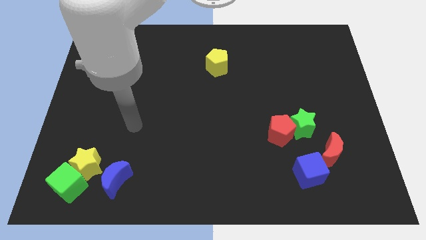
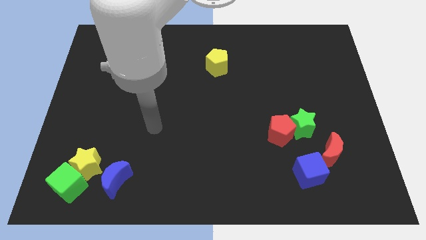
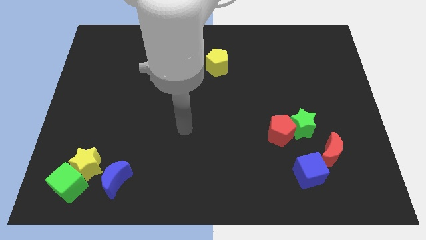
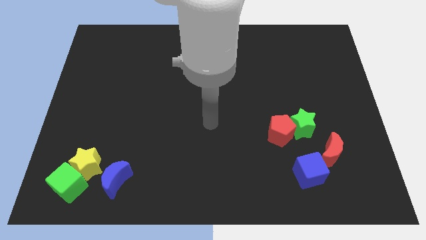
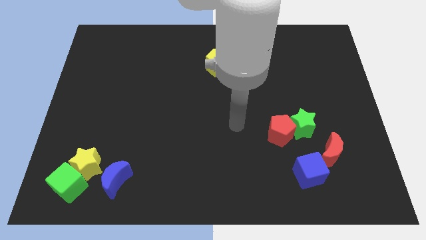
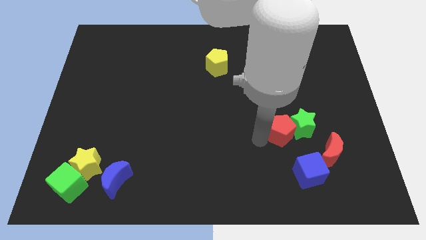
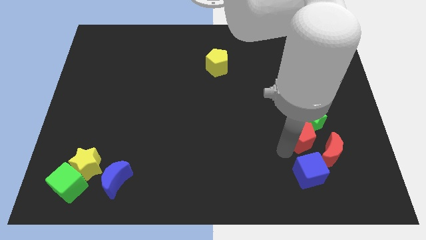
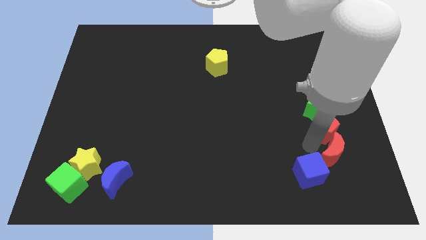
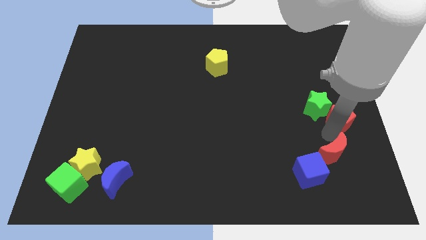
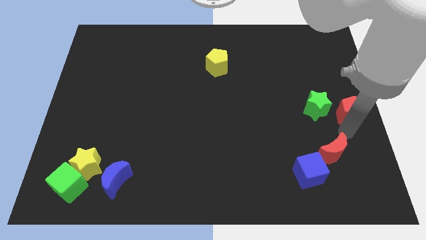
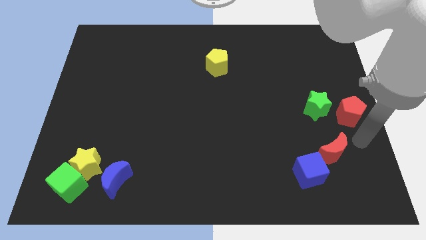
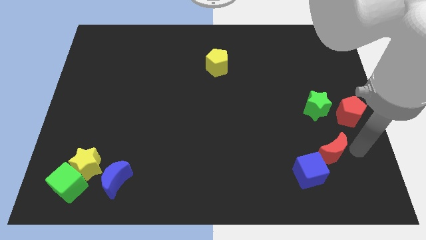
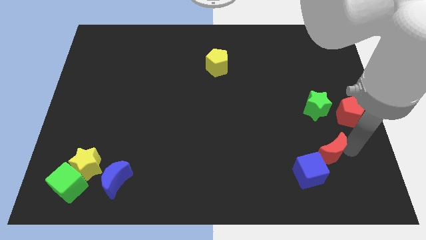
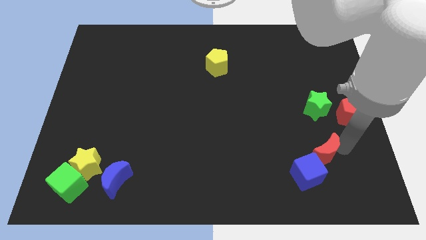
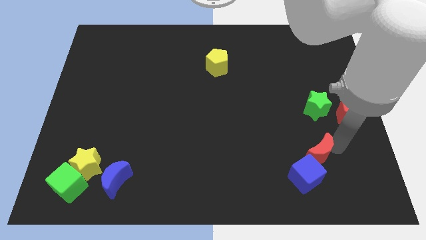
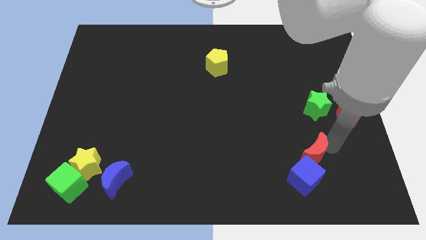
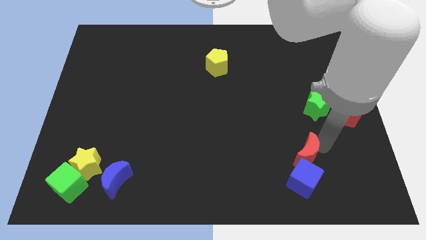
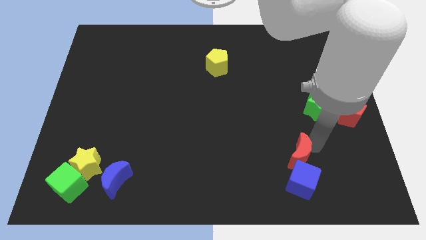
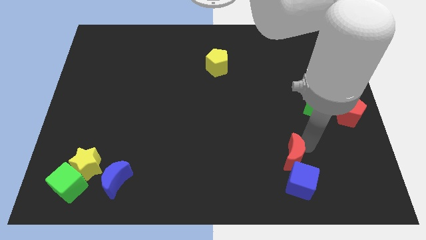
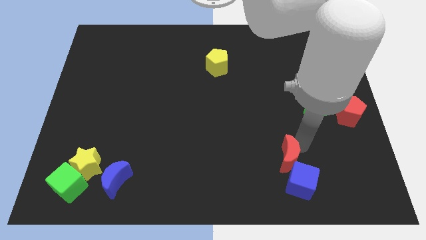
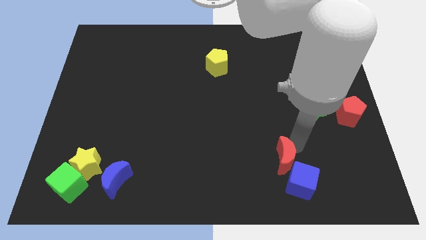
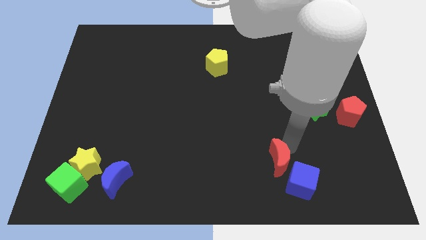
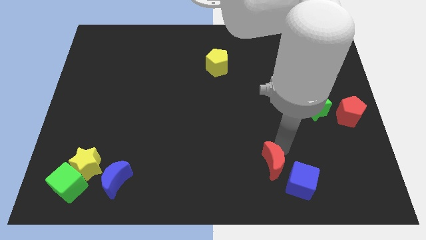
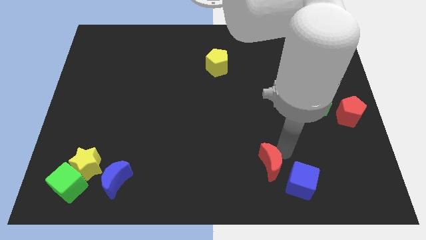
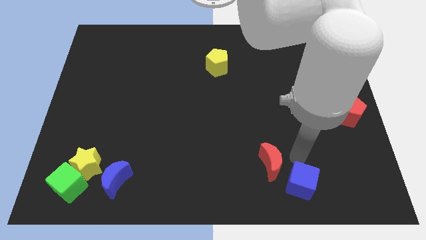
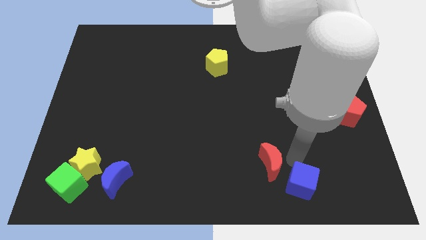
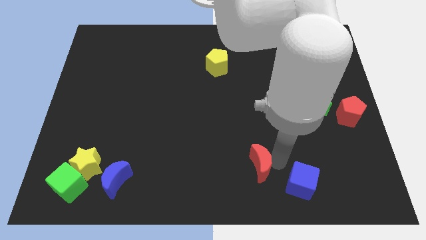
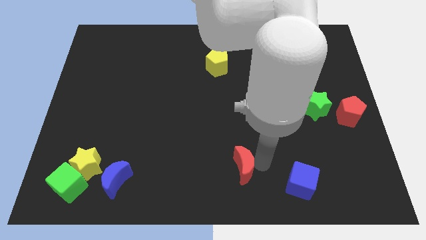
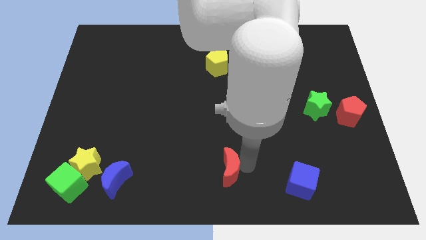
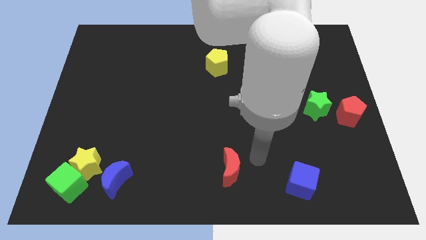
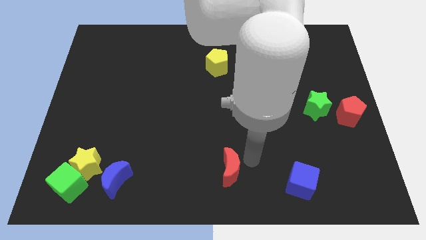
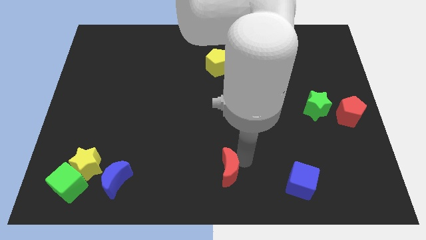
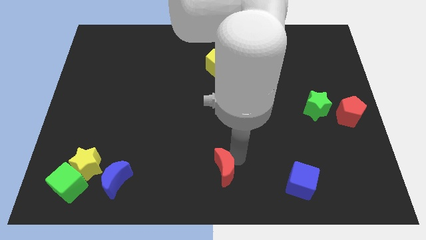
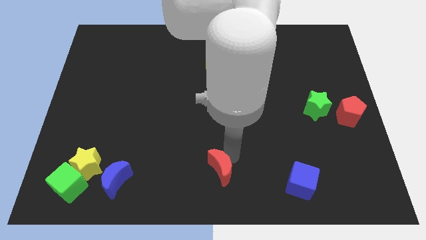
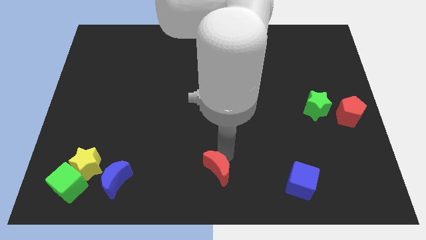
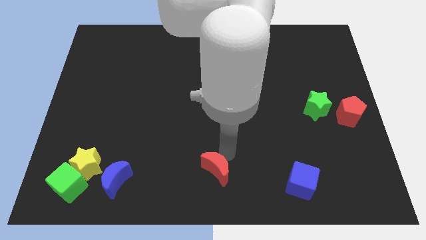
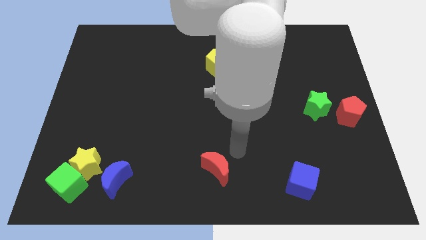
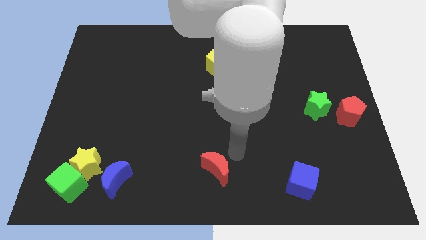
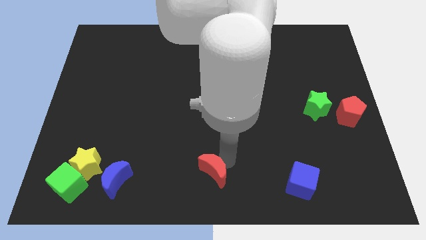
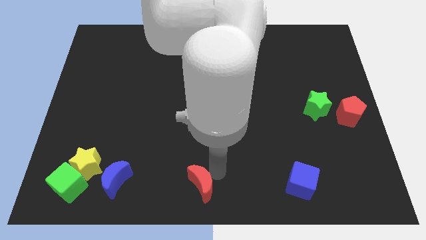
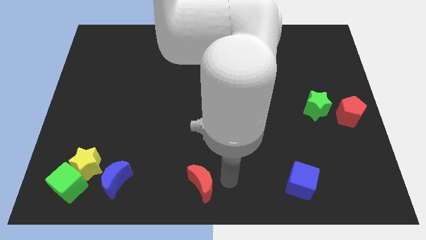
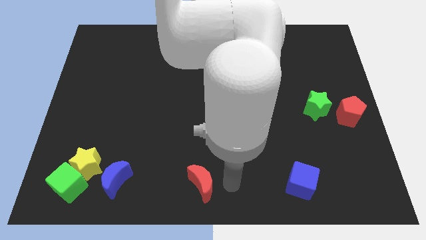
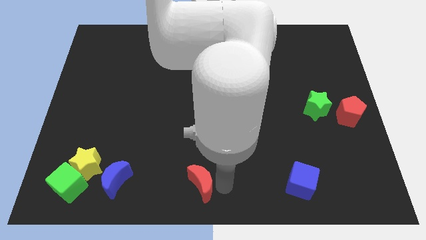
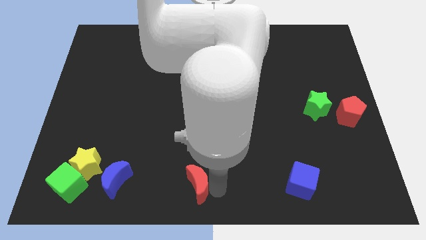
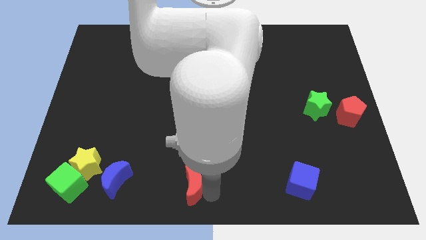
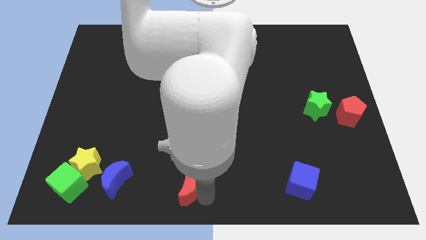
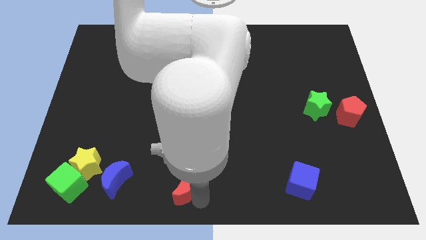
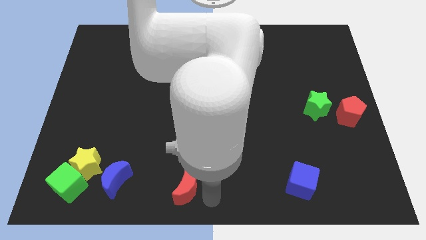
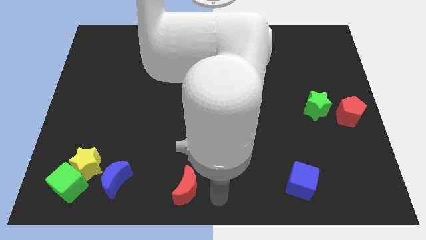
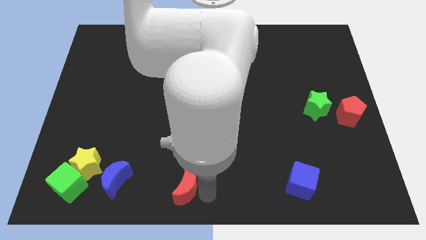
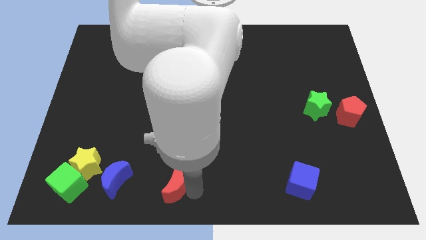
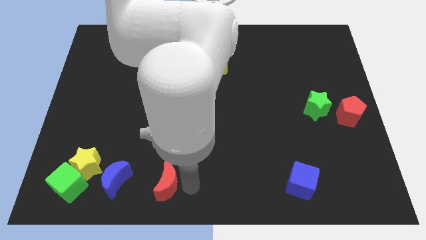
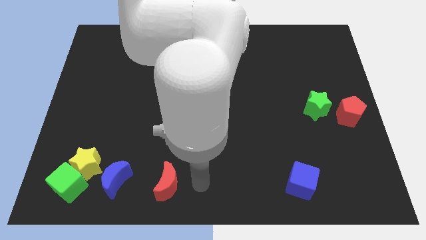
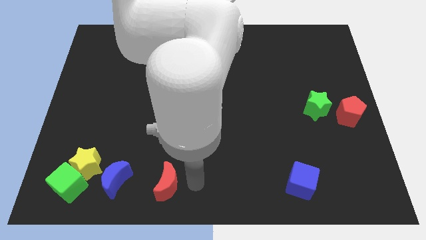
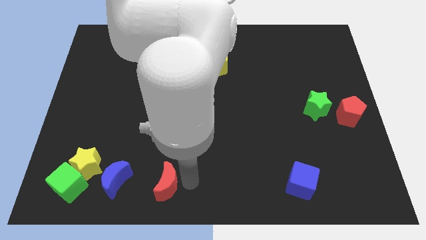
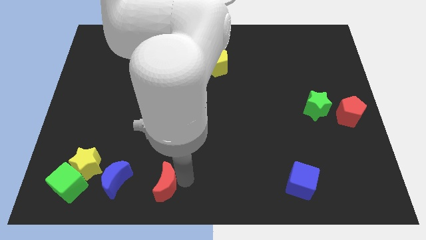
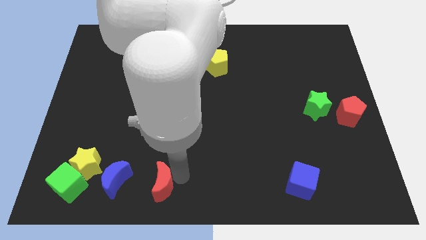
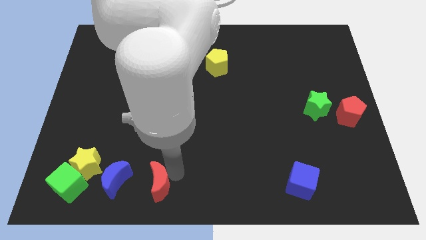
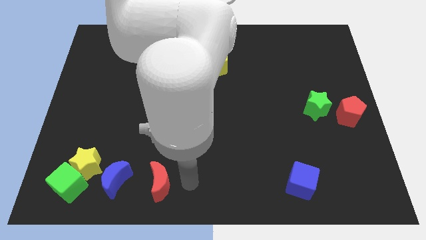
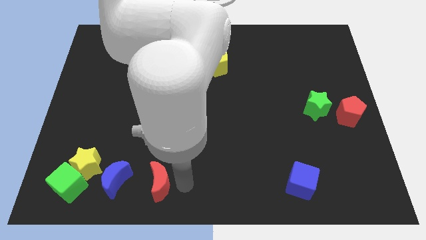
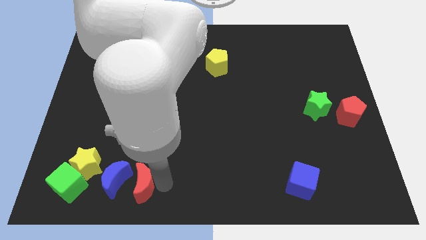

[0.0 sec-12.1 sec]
slide the red moon to the blue moon

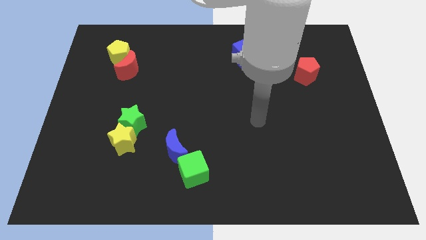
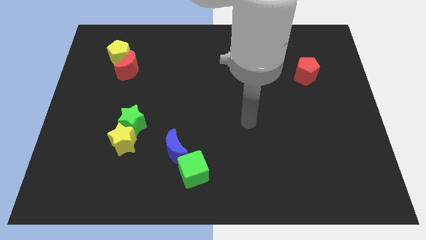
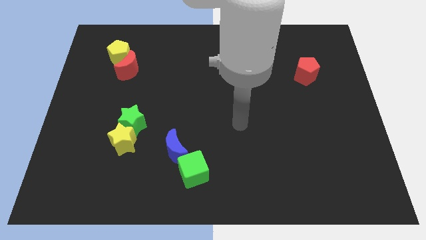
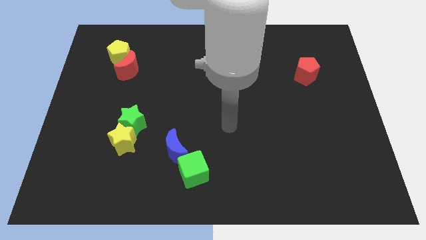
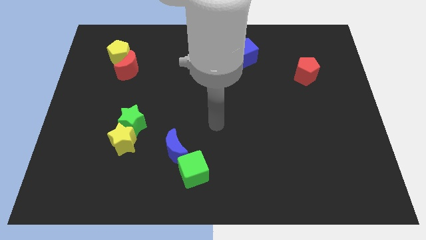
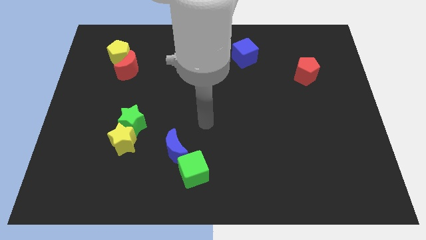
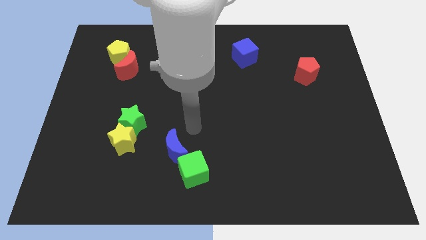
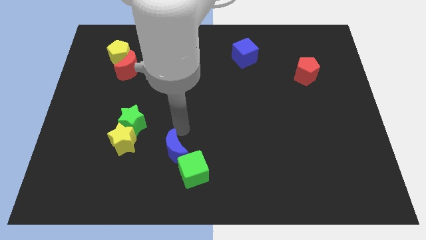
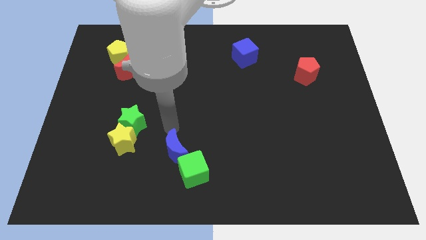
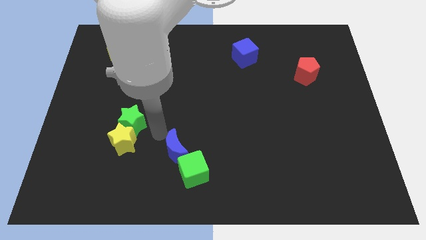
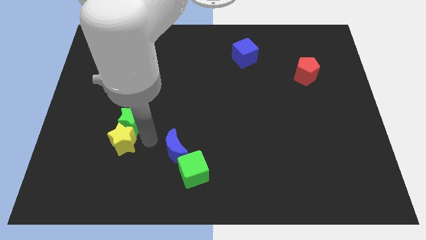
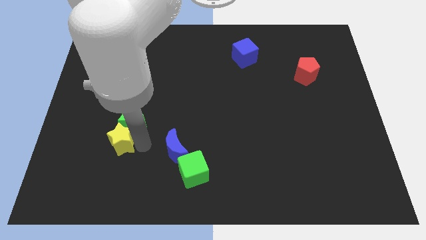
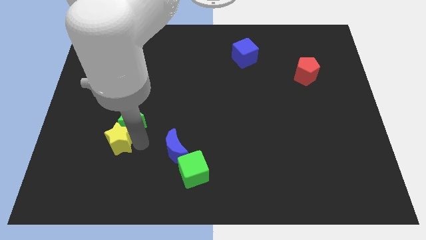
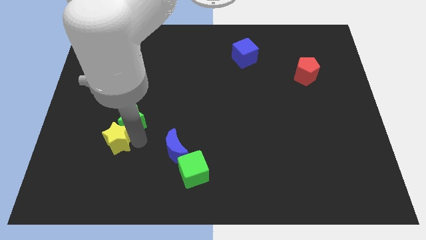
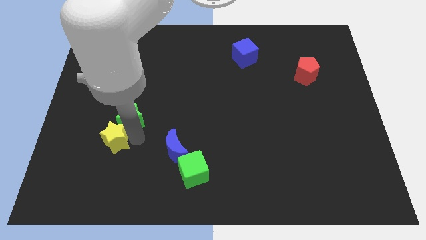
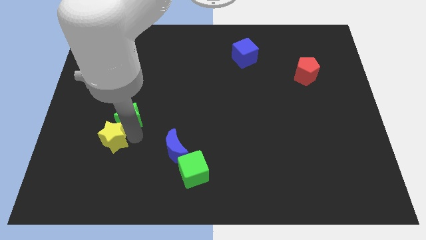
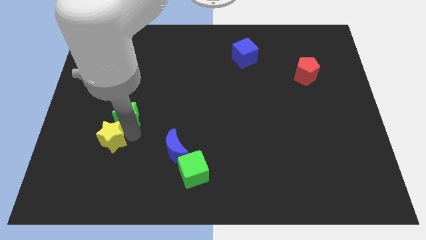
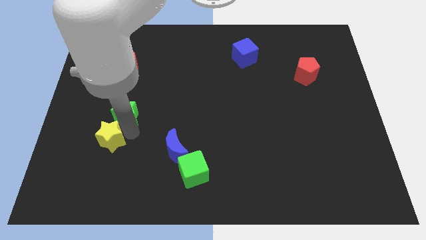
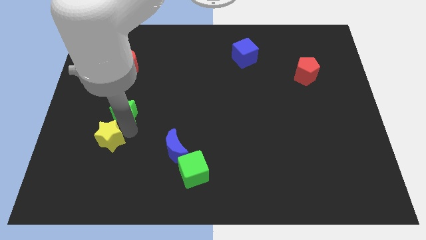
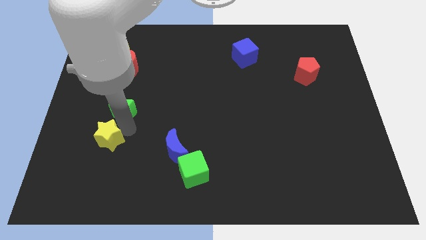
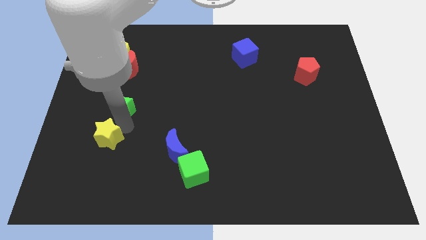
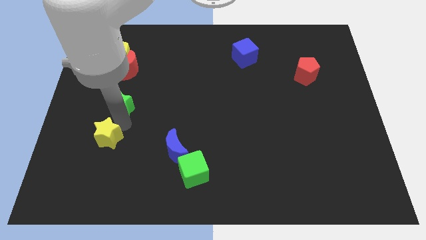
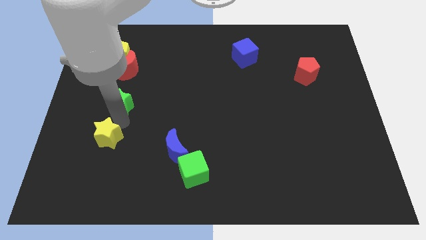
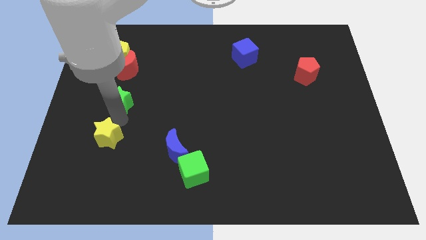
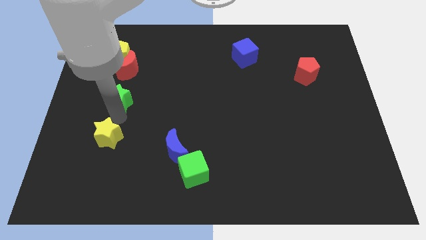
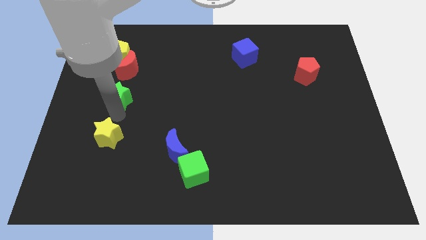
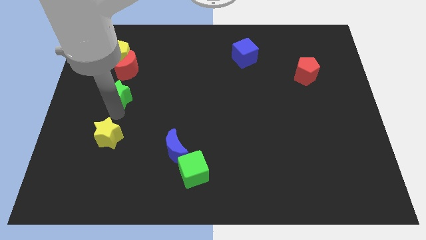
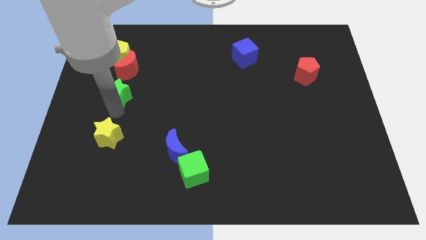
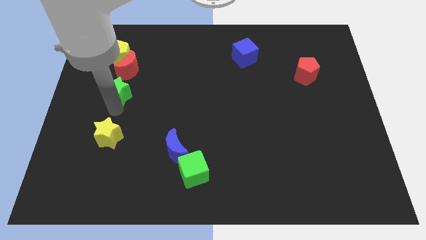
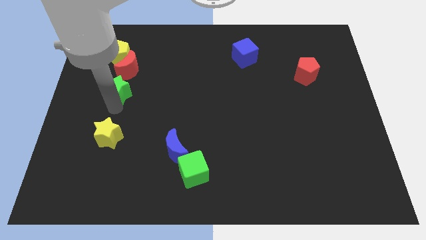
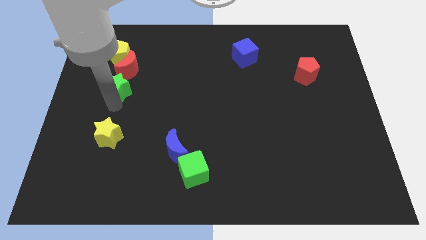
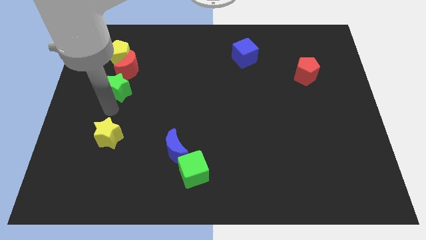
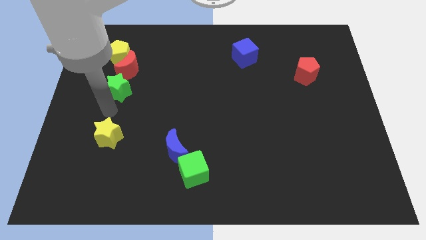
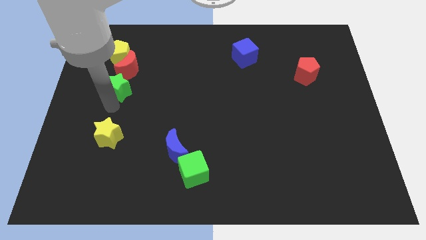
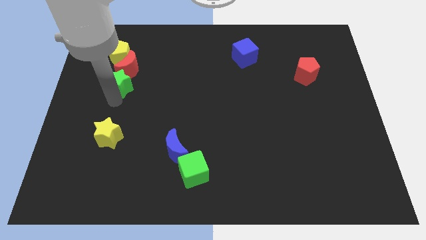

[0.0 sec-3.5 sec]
slide the green star close to the red moon
